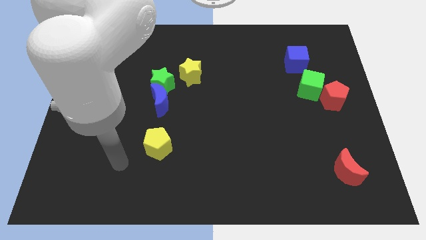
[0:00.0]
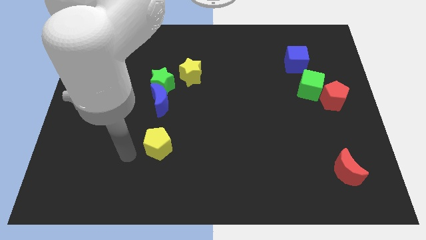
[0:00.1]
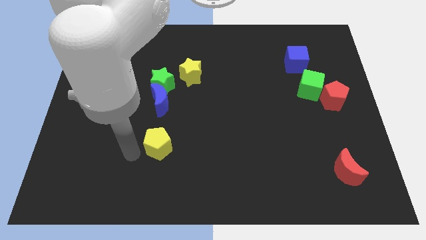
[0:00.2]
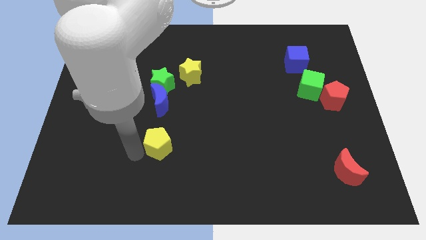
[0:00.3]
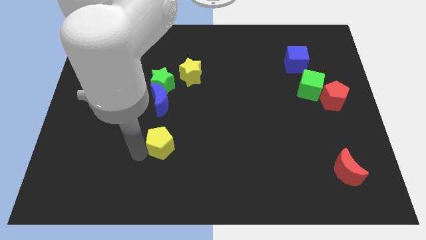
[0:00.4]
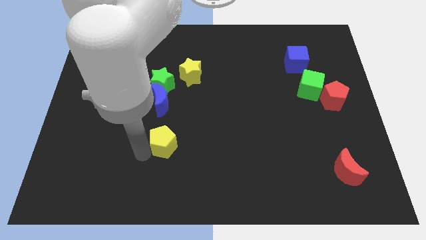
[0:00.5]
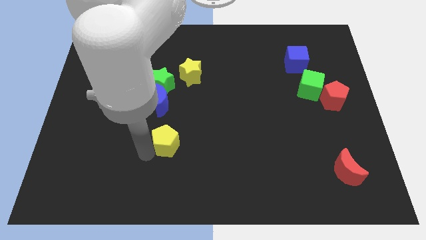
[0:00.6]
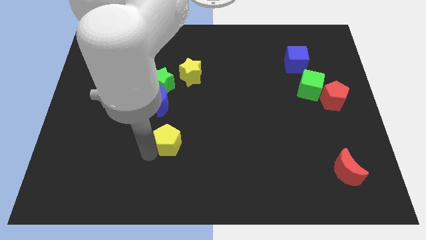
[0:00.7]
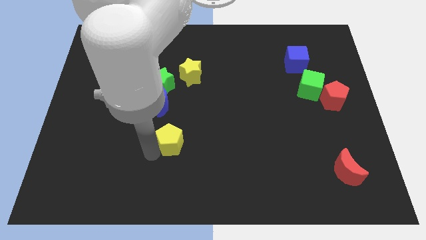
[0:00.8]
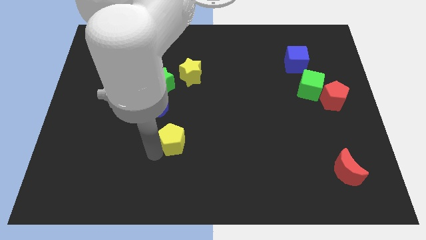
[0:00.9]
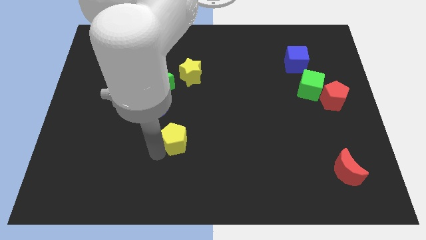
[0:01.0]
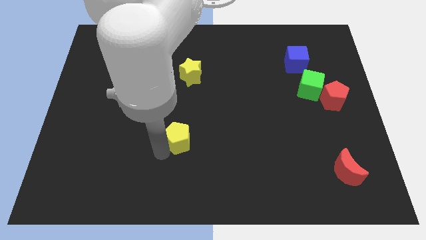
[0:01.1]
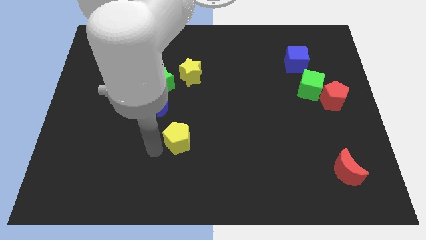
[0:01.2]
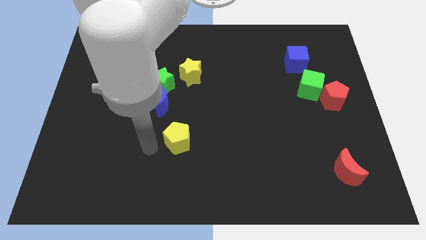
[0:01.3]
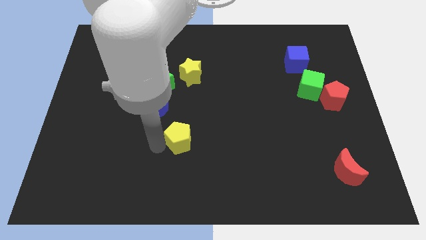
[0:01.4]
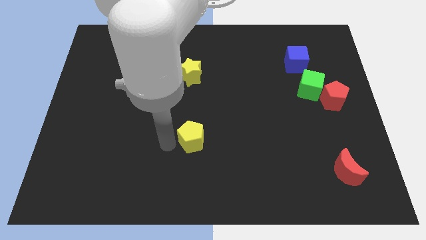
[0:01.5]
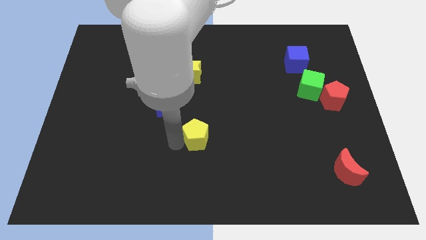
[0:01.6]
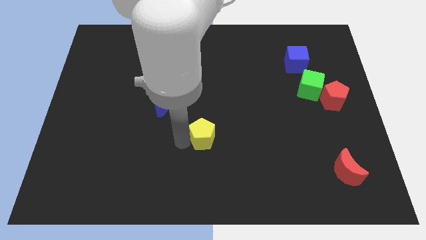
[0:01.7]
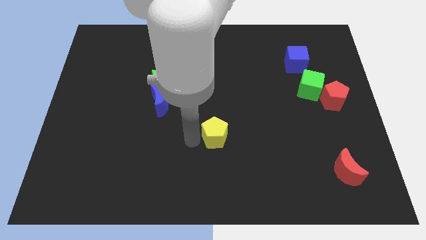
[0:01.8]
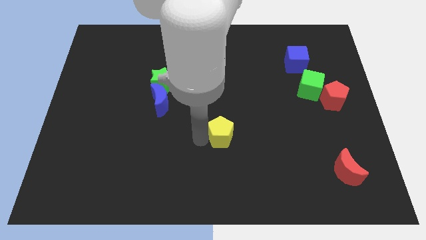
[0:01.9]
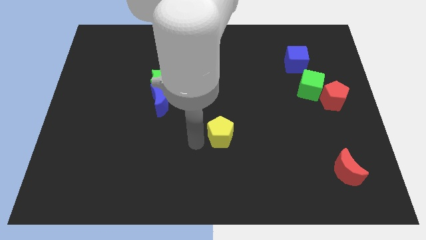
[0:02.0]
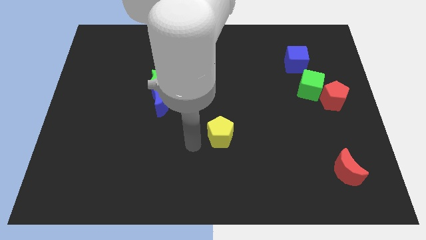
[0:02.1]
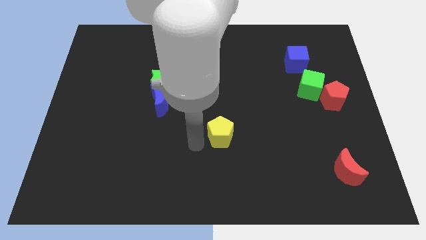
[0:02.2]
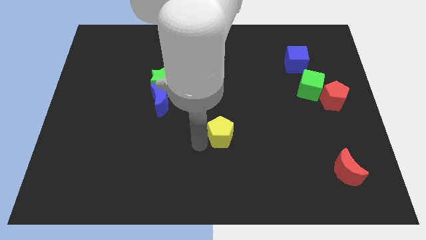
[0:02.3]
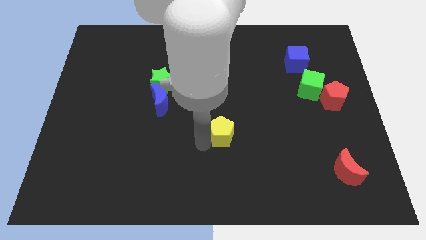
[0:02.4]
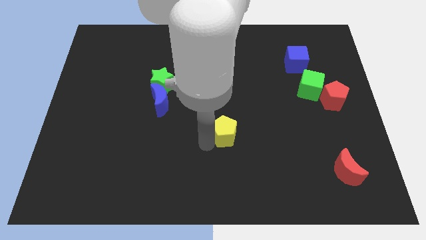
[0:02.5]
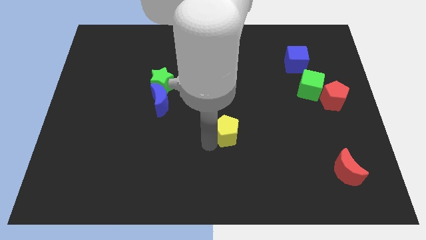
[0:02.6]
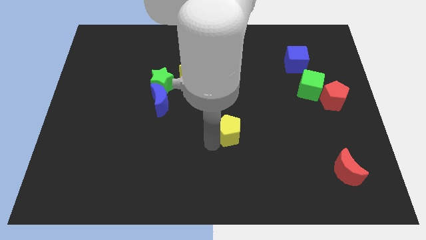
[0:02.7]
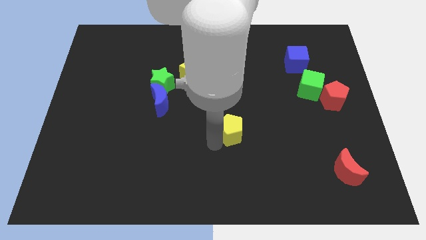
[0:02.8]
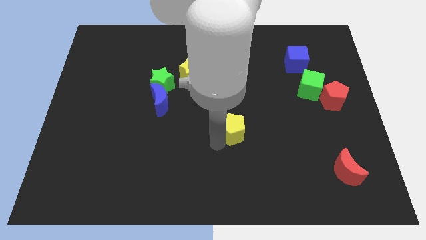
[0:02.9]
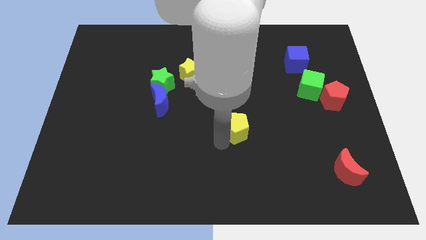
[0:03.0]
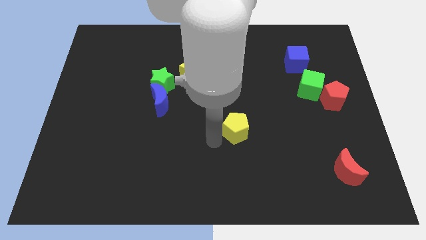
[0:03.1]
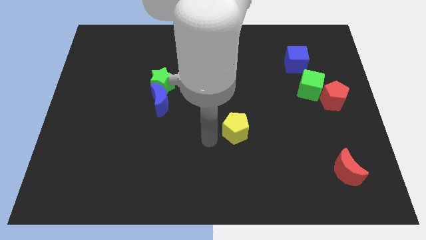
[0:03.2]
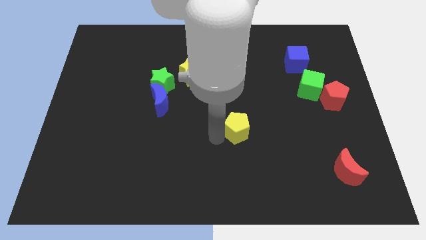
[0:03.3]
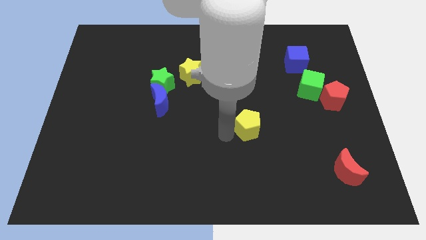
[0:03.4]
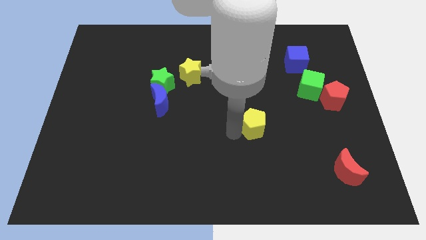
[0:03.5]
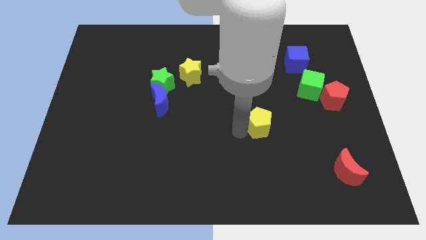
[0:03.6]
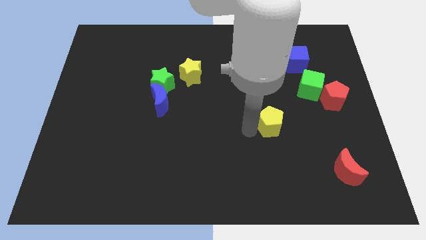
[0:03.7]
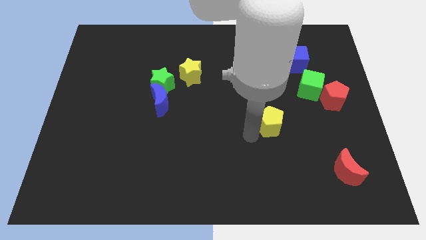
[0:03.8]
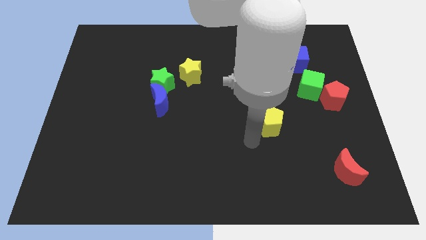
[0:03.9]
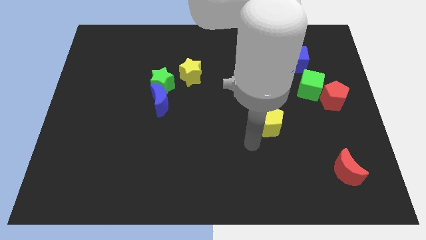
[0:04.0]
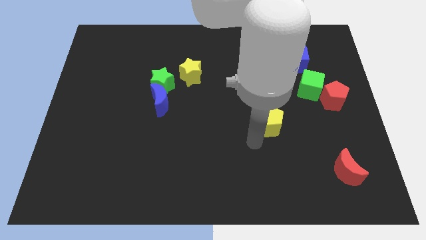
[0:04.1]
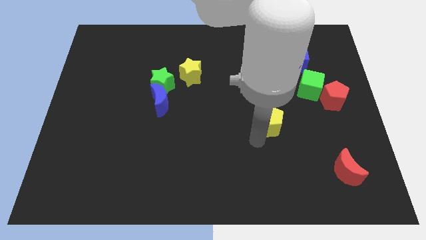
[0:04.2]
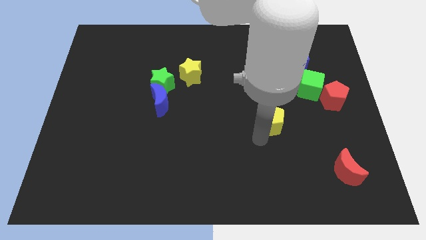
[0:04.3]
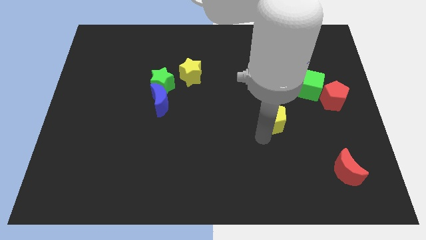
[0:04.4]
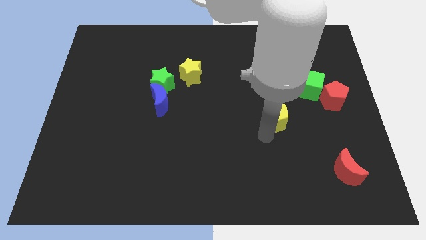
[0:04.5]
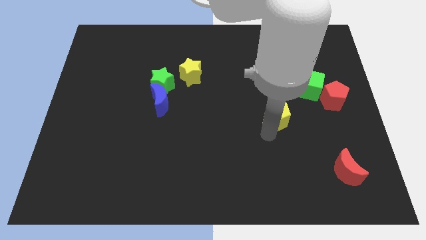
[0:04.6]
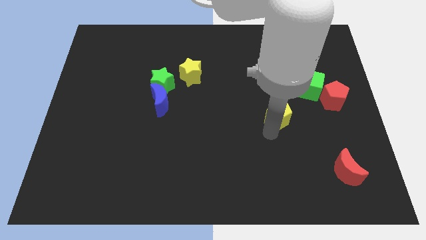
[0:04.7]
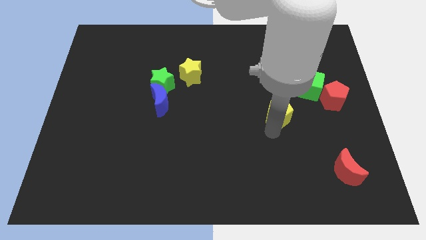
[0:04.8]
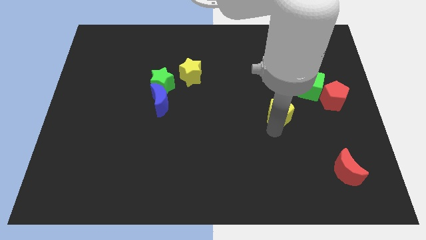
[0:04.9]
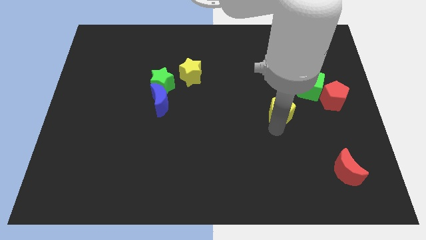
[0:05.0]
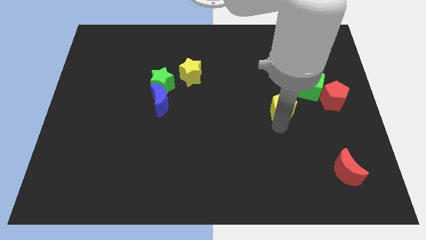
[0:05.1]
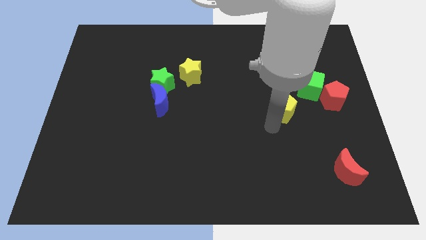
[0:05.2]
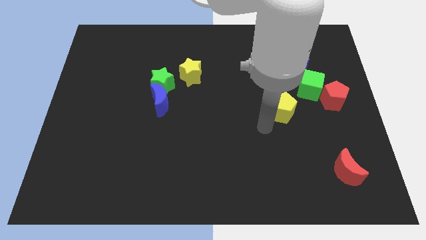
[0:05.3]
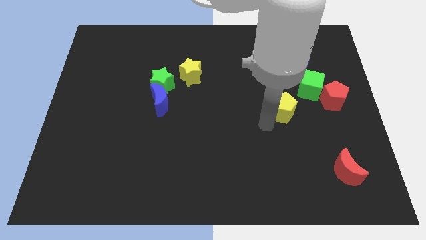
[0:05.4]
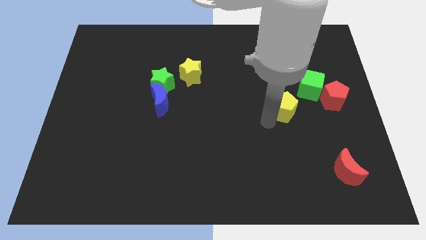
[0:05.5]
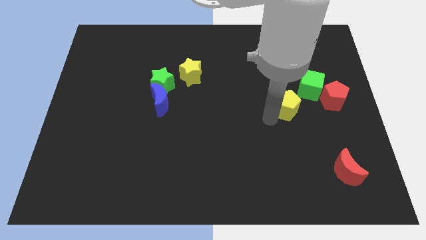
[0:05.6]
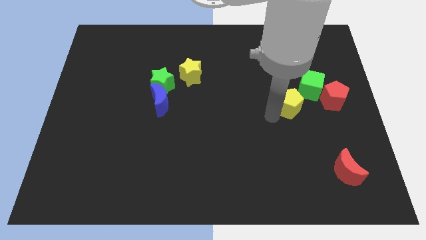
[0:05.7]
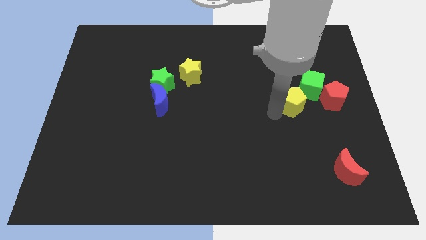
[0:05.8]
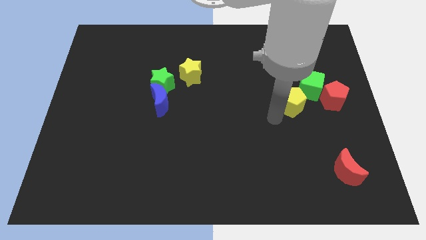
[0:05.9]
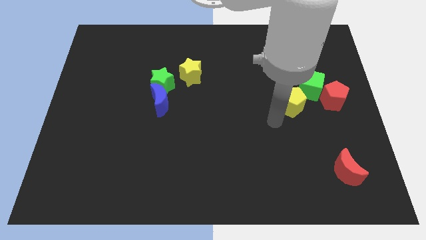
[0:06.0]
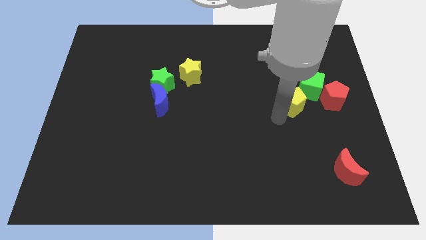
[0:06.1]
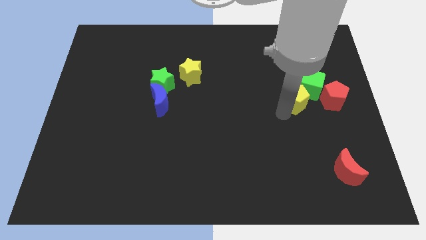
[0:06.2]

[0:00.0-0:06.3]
move the yellow pentagon close to the green cube

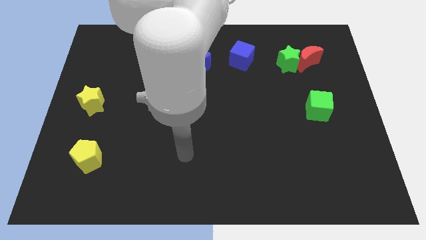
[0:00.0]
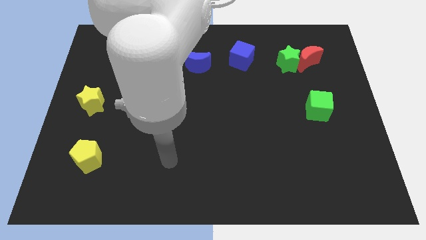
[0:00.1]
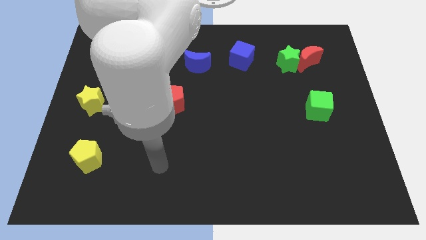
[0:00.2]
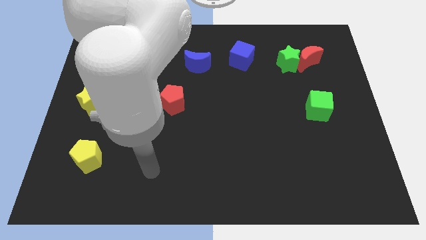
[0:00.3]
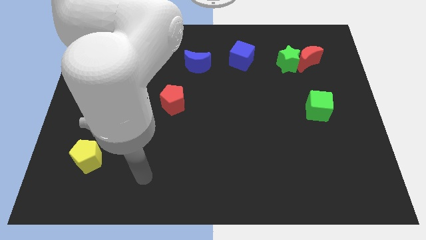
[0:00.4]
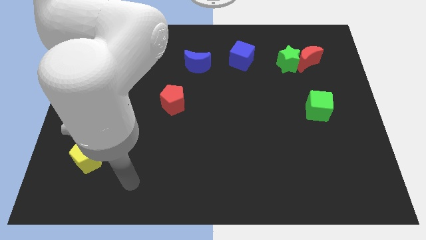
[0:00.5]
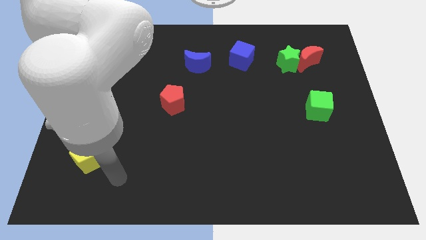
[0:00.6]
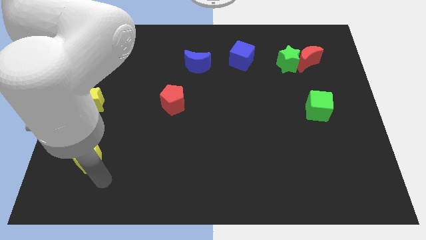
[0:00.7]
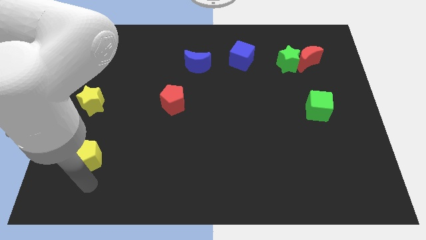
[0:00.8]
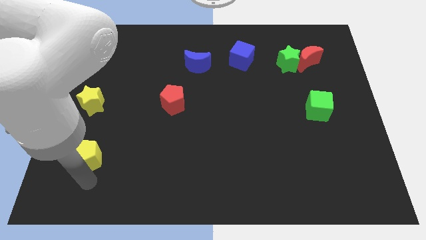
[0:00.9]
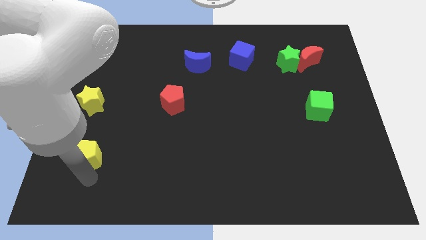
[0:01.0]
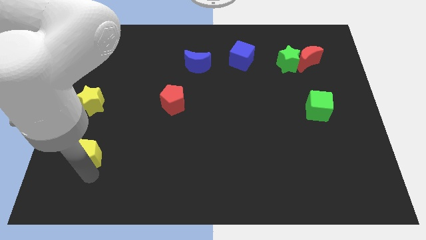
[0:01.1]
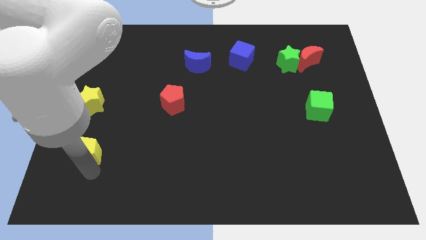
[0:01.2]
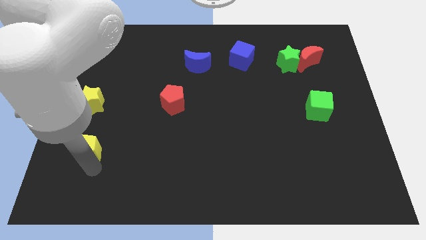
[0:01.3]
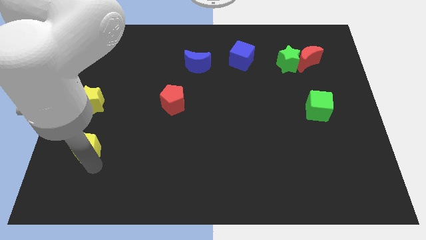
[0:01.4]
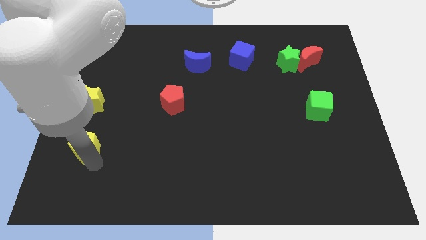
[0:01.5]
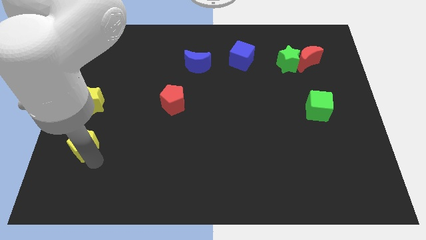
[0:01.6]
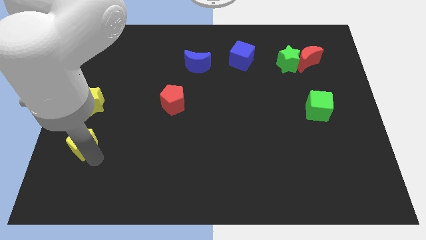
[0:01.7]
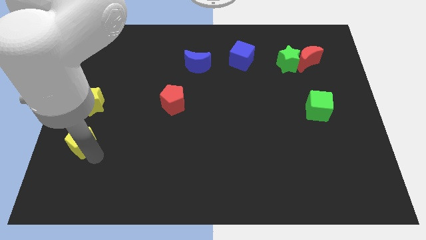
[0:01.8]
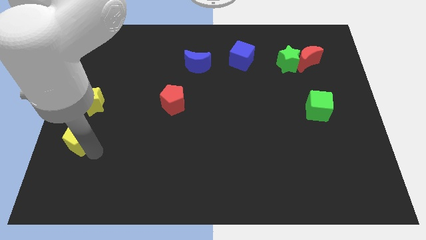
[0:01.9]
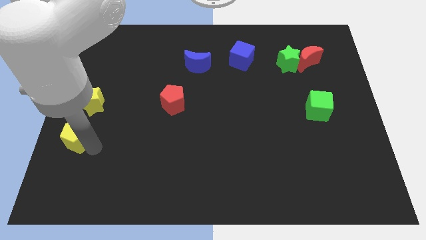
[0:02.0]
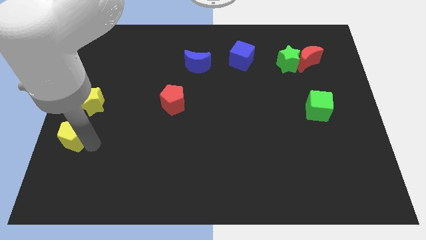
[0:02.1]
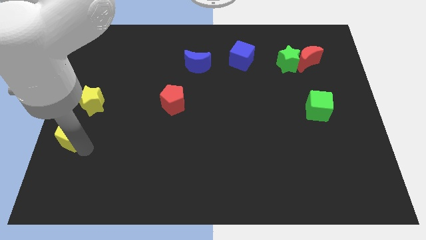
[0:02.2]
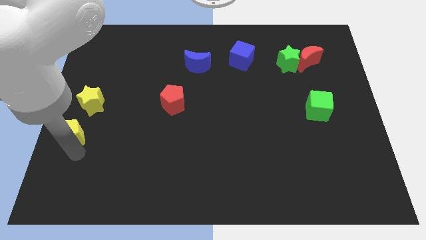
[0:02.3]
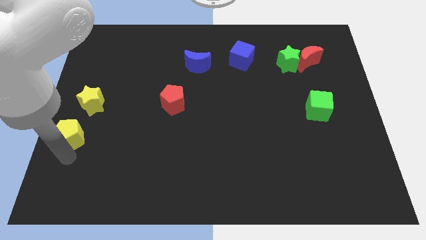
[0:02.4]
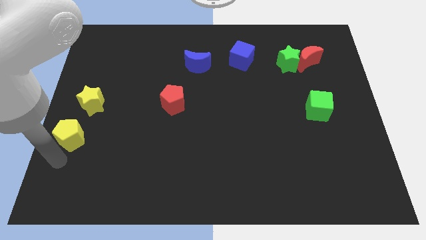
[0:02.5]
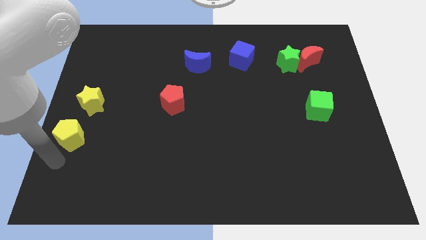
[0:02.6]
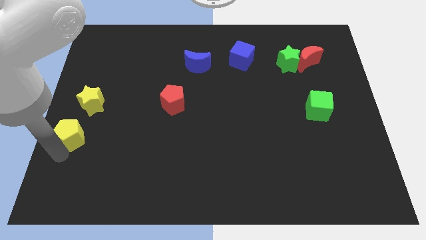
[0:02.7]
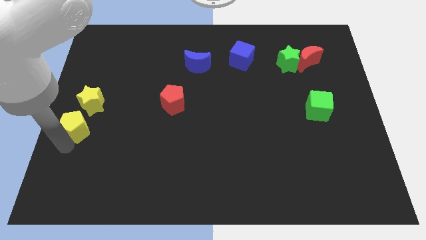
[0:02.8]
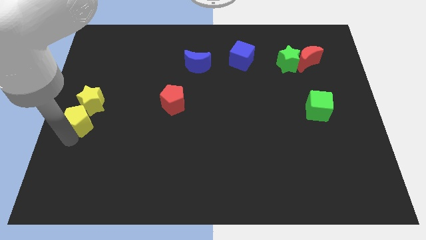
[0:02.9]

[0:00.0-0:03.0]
push the yellow pentagon towards the yellow star
